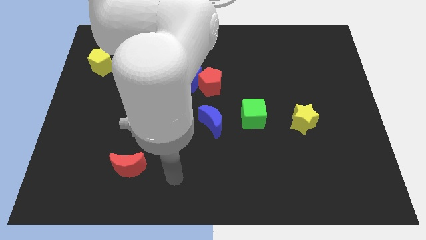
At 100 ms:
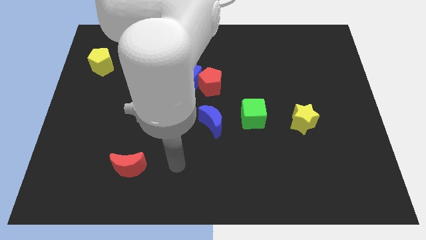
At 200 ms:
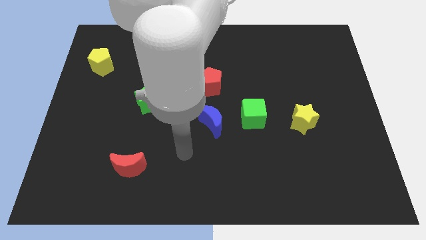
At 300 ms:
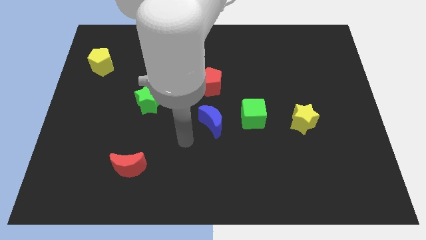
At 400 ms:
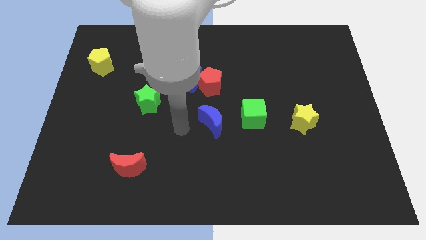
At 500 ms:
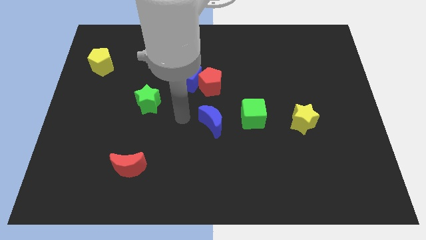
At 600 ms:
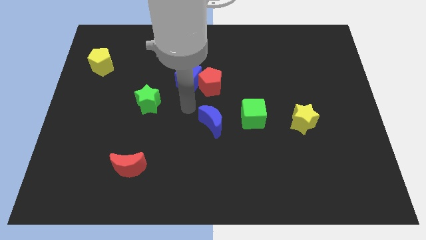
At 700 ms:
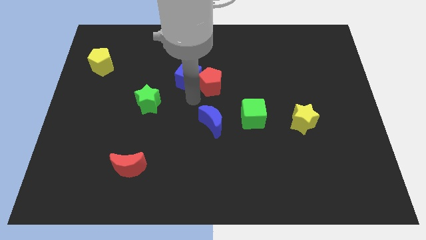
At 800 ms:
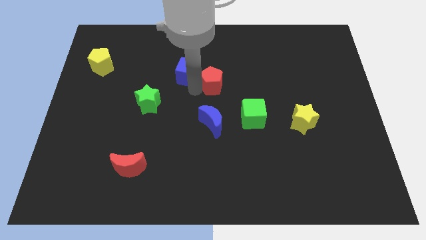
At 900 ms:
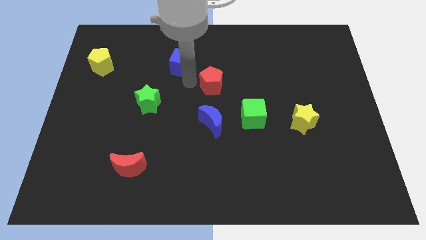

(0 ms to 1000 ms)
move the red pentagon away from the blue cube

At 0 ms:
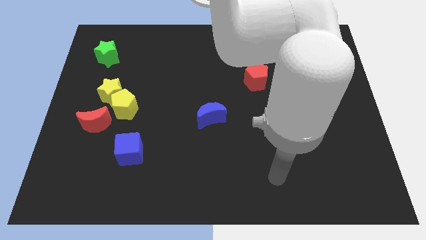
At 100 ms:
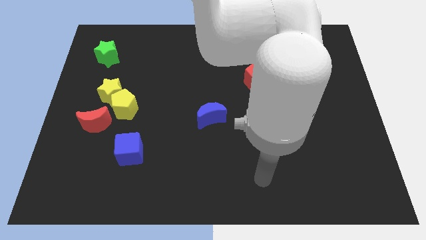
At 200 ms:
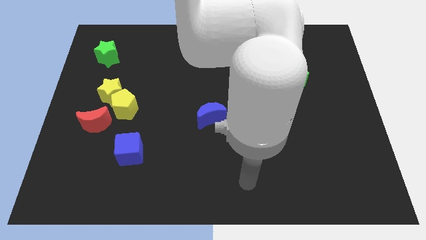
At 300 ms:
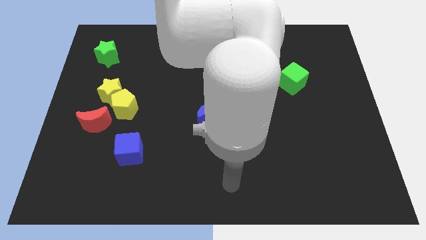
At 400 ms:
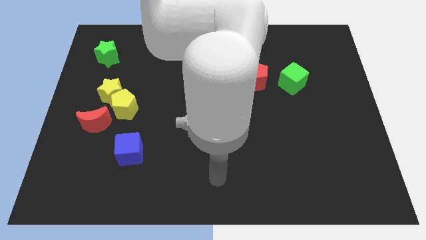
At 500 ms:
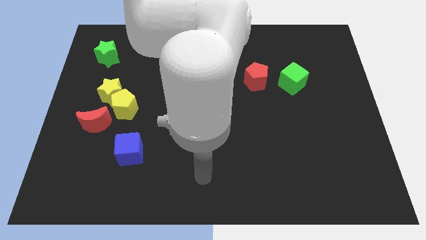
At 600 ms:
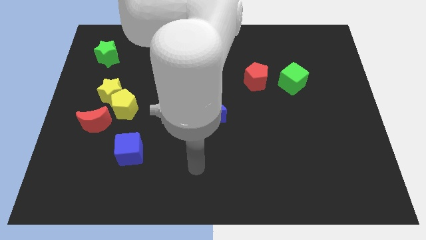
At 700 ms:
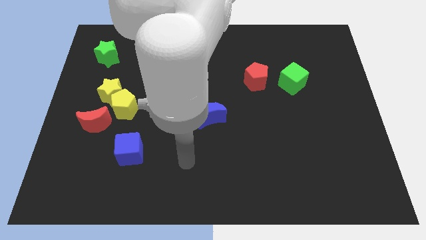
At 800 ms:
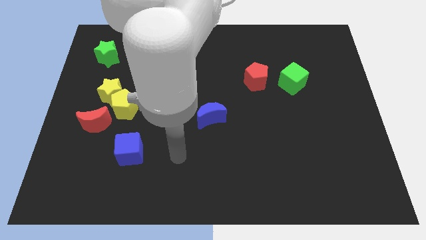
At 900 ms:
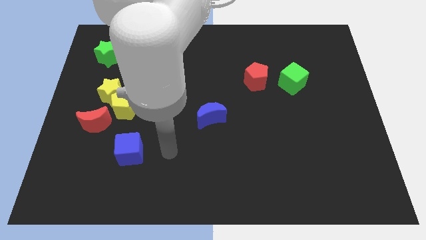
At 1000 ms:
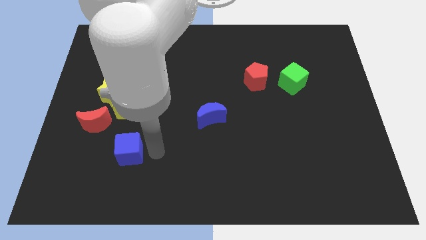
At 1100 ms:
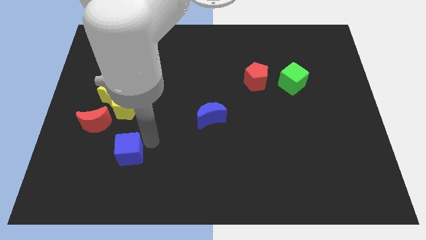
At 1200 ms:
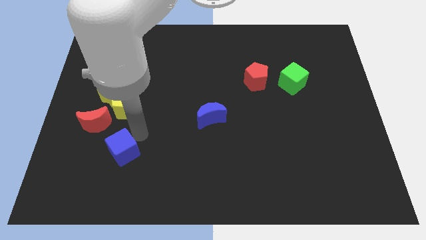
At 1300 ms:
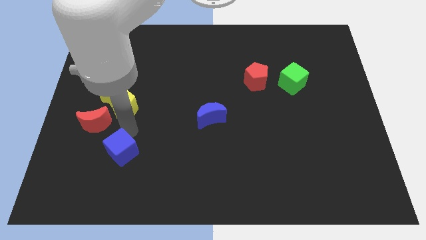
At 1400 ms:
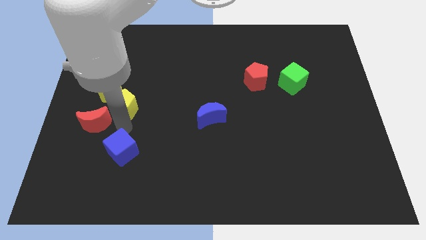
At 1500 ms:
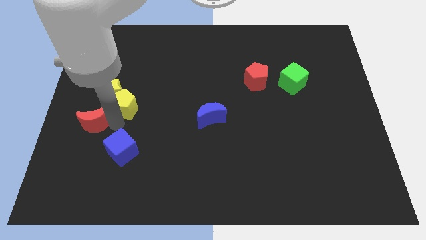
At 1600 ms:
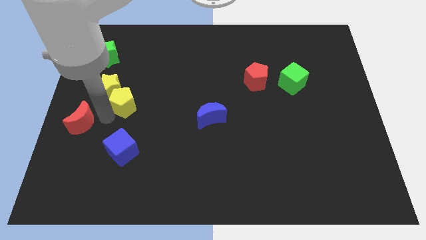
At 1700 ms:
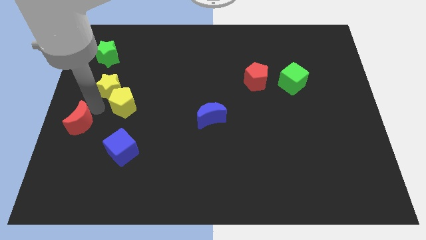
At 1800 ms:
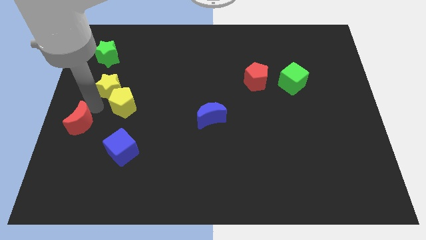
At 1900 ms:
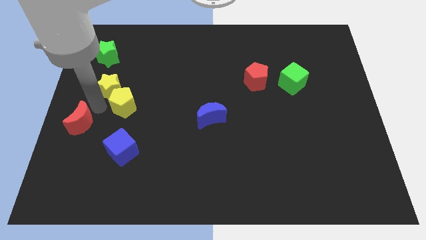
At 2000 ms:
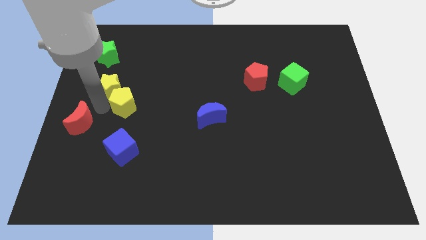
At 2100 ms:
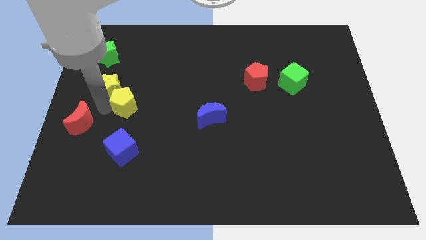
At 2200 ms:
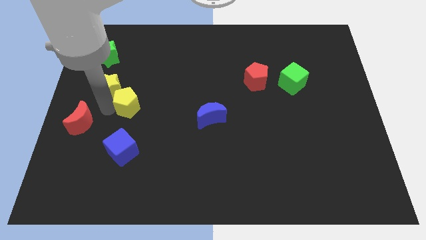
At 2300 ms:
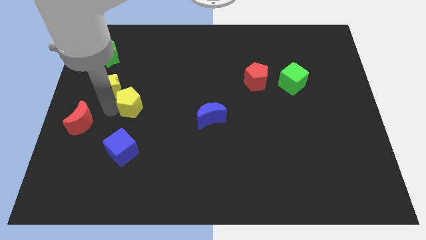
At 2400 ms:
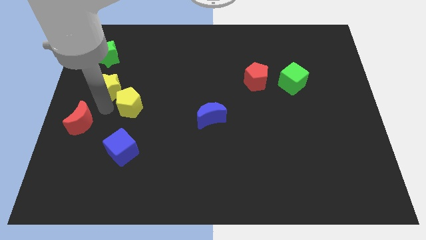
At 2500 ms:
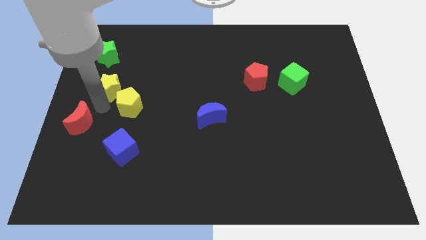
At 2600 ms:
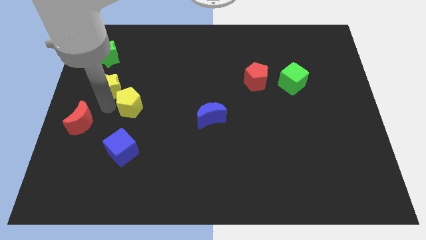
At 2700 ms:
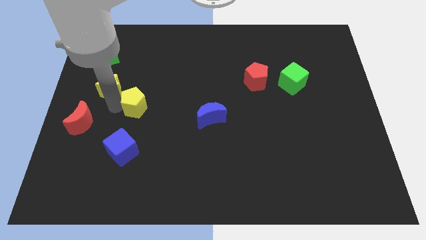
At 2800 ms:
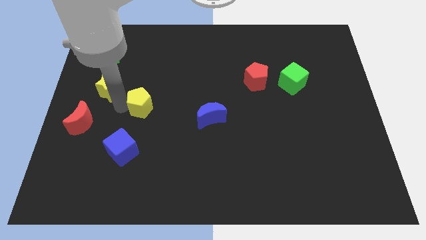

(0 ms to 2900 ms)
pull the yellow pentagon apart from the yellow star and red moon

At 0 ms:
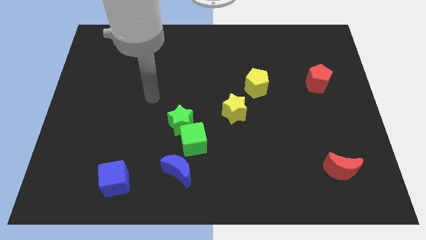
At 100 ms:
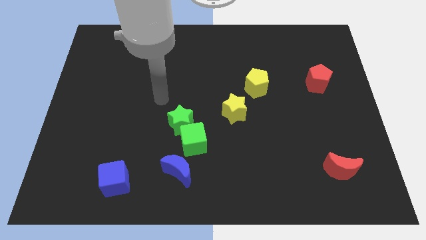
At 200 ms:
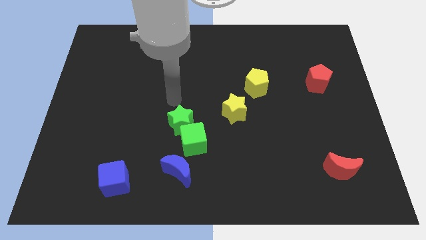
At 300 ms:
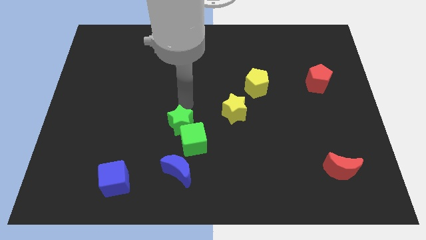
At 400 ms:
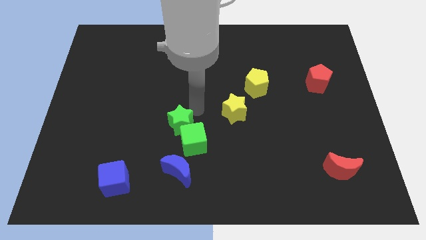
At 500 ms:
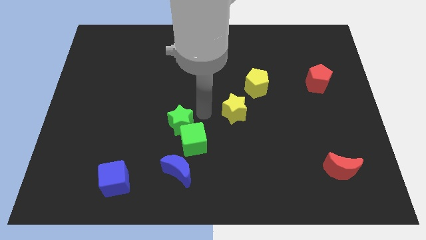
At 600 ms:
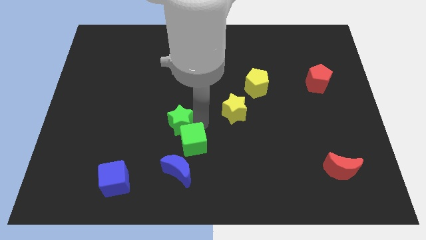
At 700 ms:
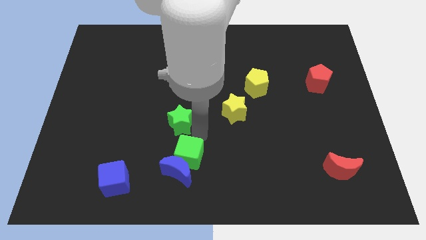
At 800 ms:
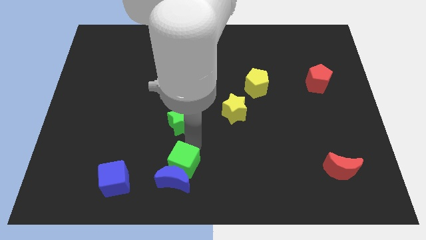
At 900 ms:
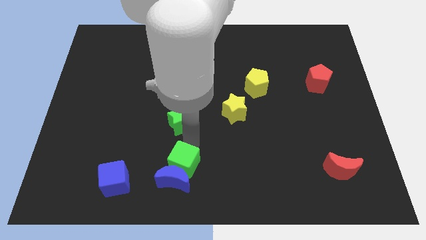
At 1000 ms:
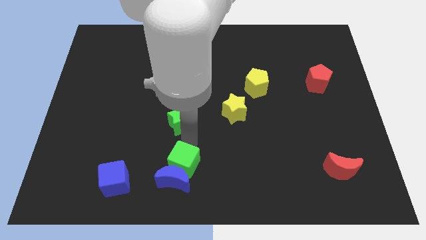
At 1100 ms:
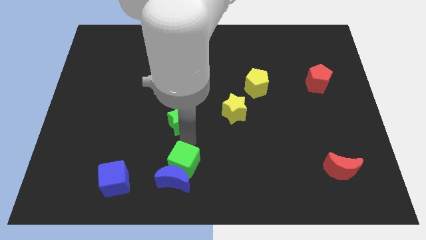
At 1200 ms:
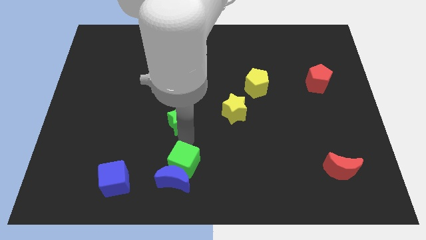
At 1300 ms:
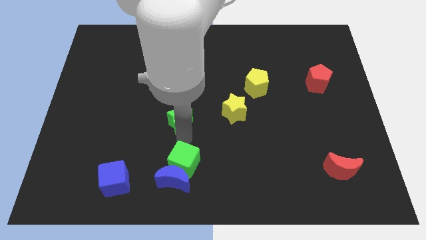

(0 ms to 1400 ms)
separate the green star from the green cube

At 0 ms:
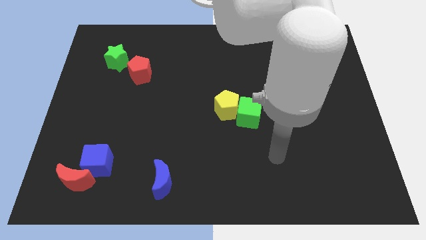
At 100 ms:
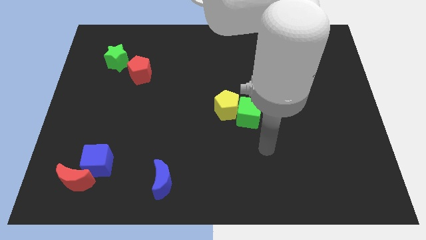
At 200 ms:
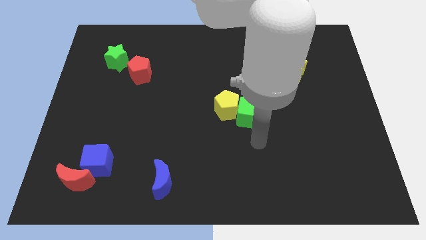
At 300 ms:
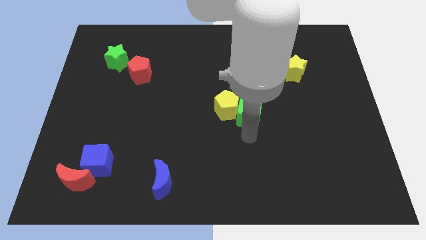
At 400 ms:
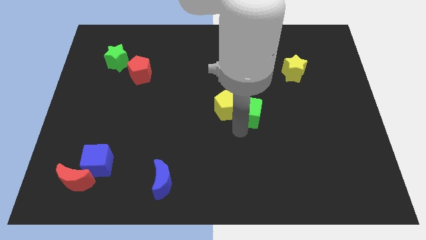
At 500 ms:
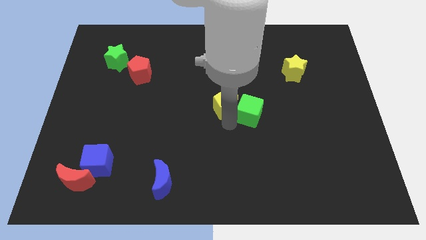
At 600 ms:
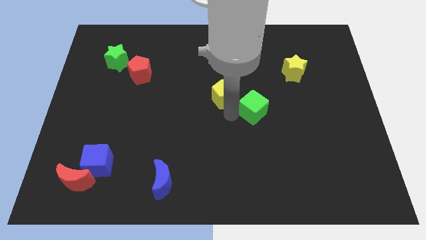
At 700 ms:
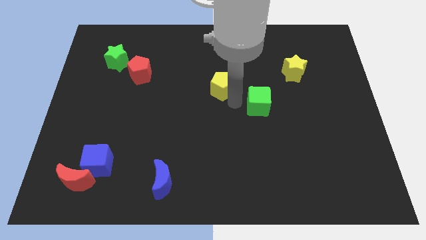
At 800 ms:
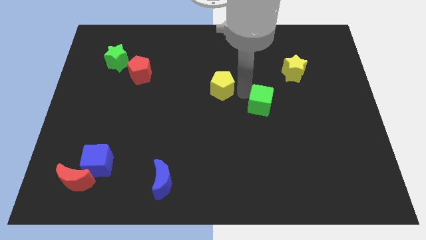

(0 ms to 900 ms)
pull the green cube apart from the yellow pentagon

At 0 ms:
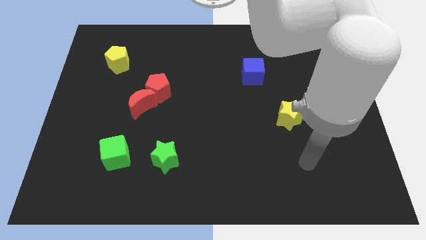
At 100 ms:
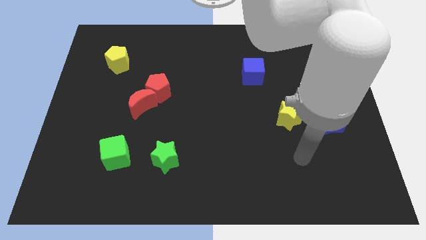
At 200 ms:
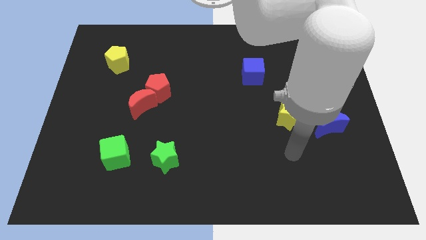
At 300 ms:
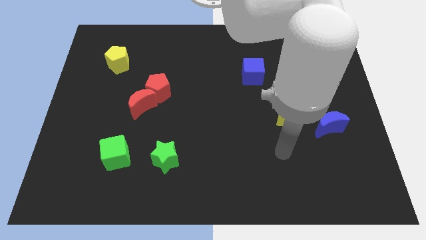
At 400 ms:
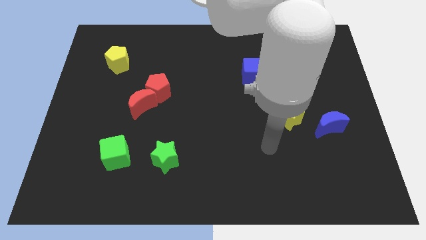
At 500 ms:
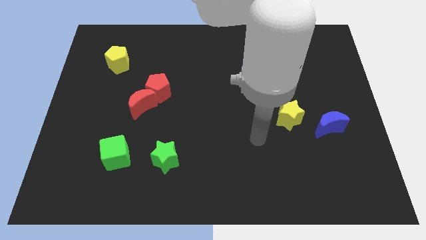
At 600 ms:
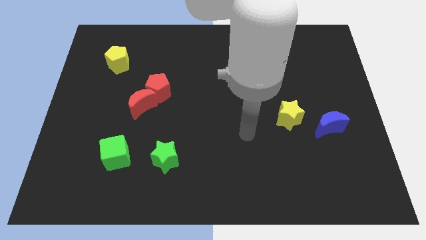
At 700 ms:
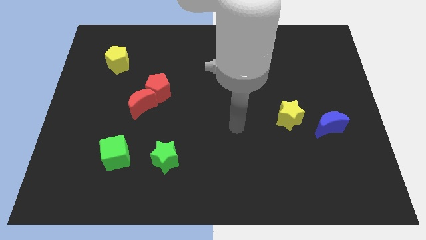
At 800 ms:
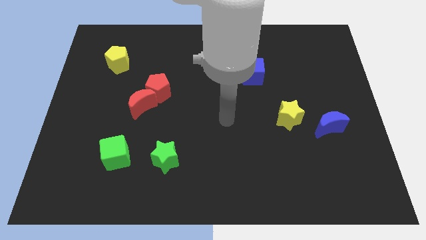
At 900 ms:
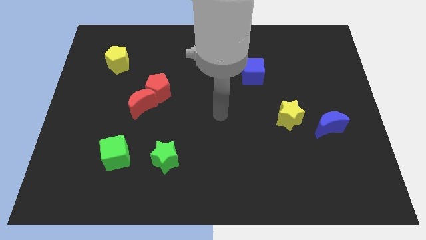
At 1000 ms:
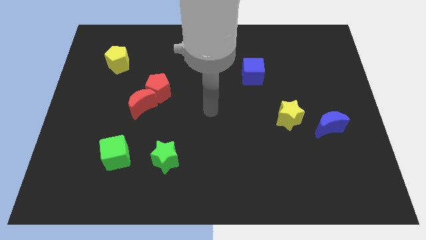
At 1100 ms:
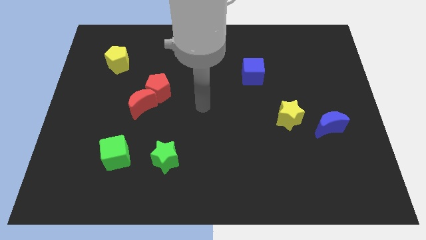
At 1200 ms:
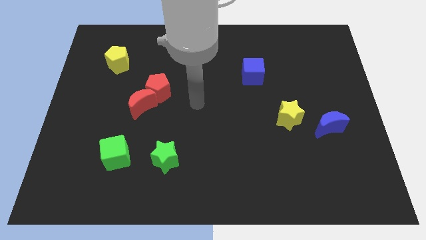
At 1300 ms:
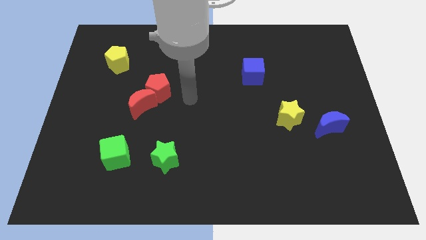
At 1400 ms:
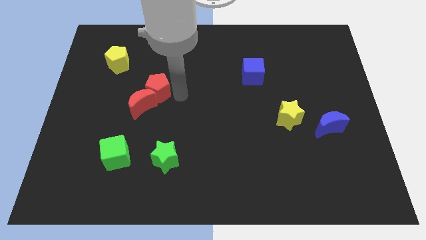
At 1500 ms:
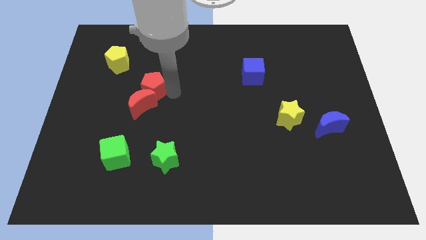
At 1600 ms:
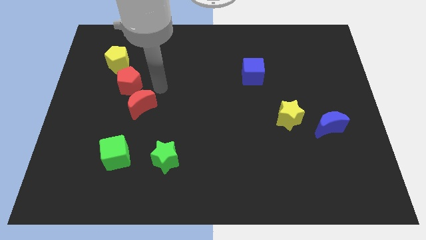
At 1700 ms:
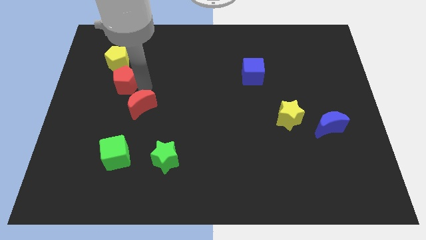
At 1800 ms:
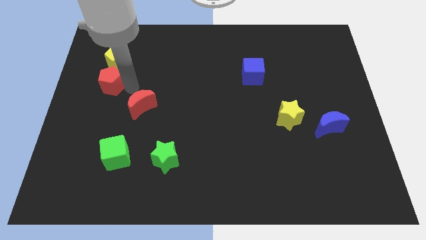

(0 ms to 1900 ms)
separate the red moon from the red pentagon

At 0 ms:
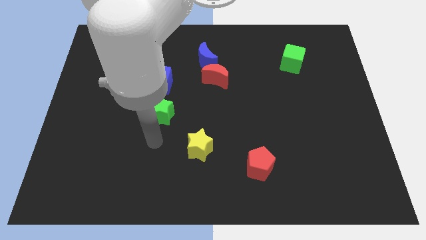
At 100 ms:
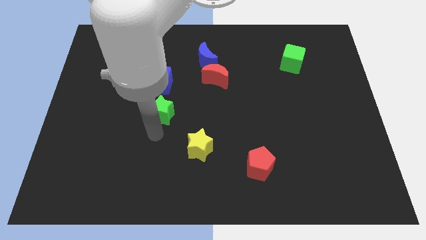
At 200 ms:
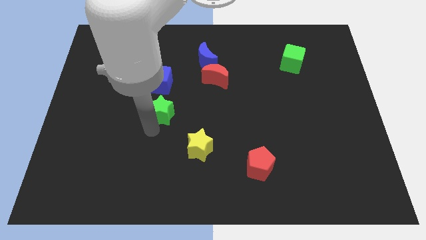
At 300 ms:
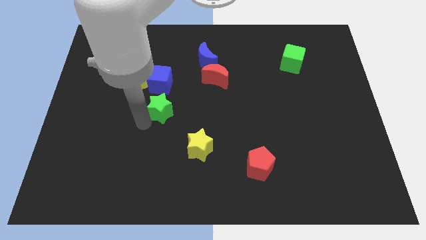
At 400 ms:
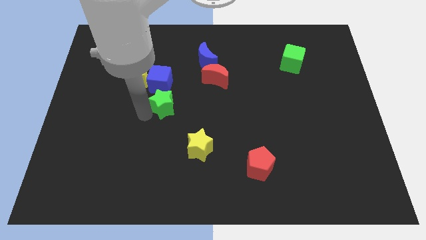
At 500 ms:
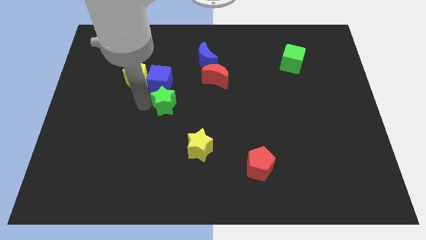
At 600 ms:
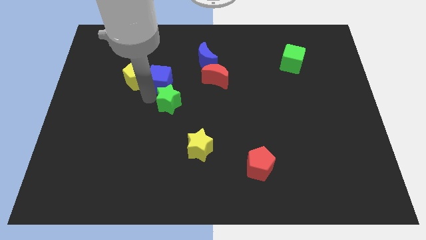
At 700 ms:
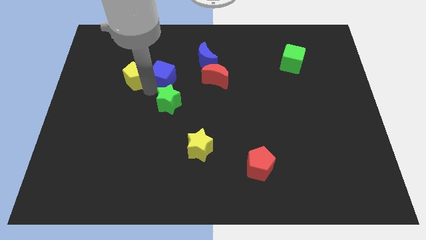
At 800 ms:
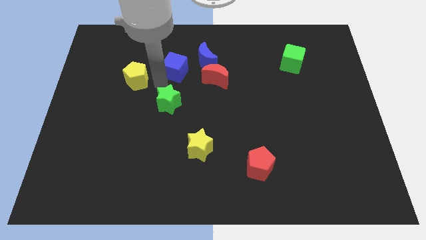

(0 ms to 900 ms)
separate the yellow pentagon from the blue cube

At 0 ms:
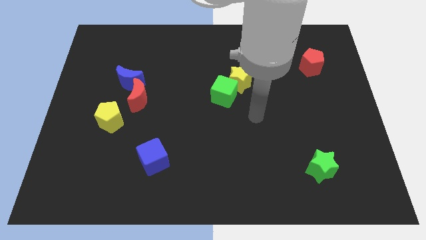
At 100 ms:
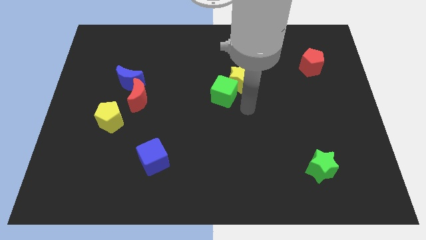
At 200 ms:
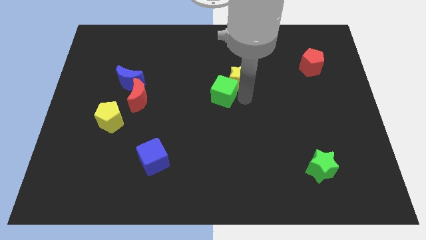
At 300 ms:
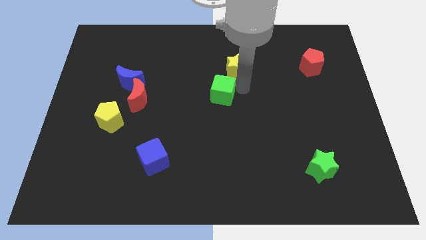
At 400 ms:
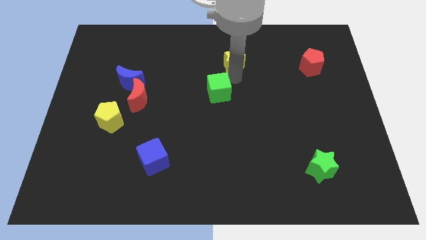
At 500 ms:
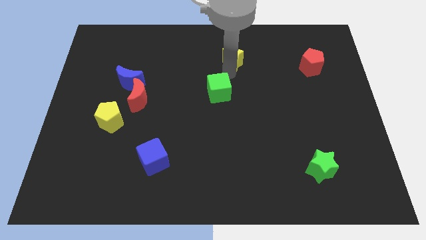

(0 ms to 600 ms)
move the green cube away from the yellow star
